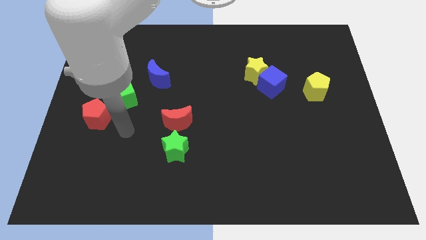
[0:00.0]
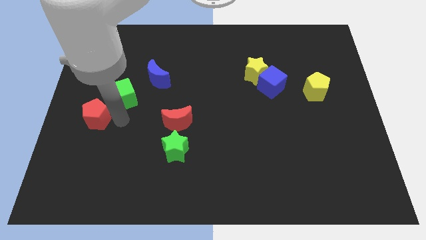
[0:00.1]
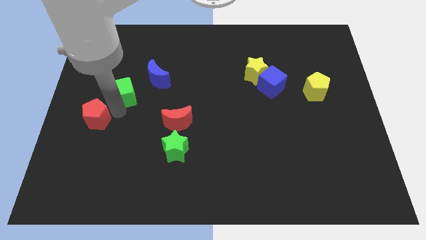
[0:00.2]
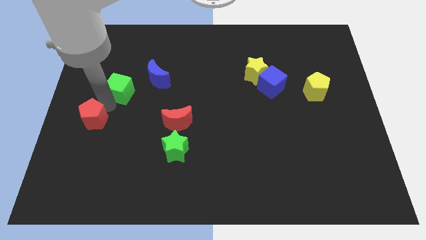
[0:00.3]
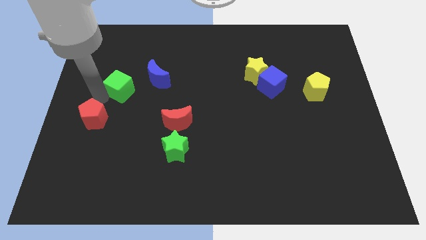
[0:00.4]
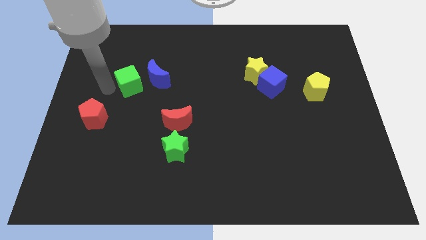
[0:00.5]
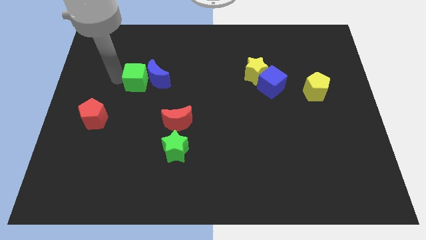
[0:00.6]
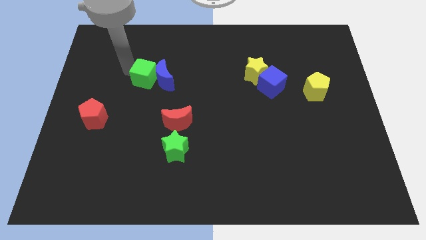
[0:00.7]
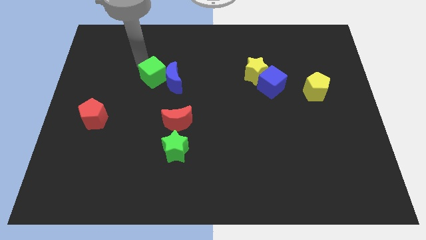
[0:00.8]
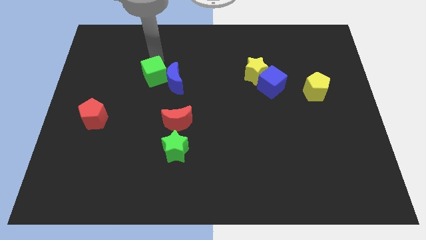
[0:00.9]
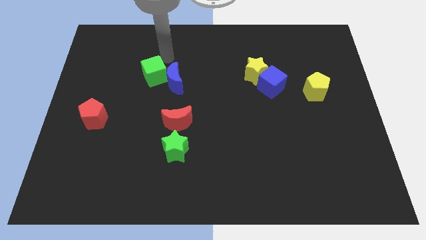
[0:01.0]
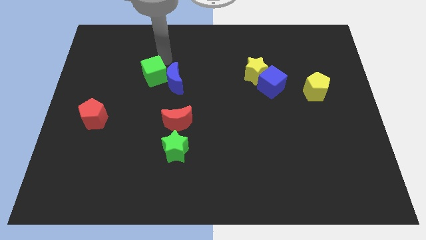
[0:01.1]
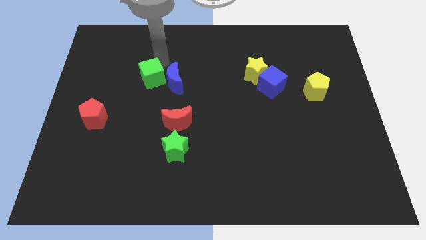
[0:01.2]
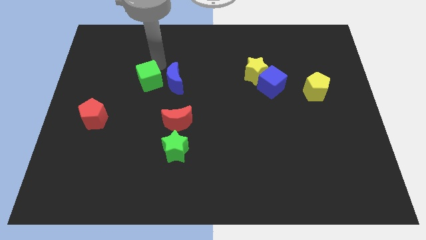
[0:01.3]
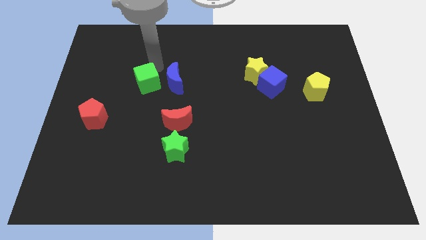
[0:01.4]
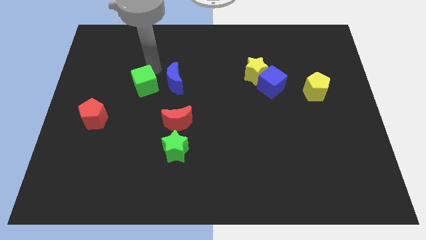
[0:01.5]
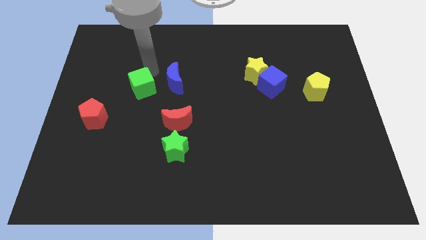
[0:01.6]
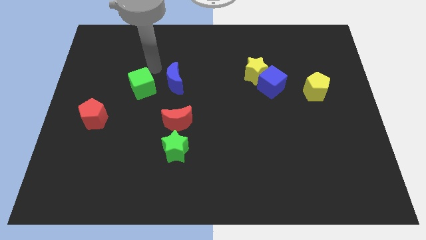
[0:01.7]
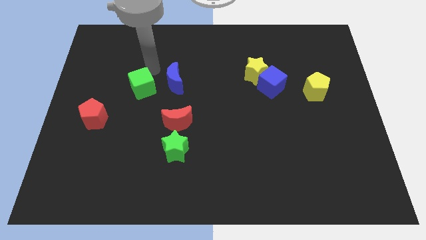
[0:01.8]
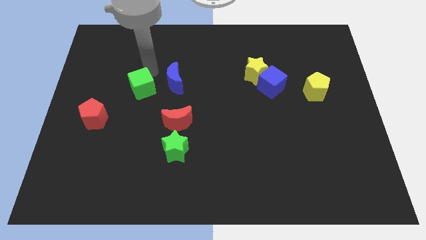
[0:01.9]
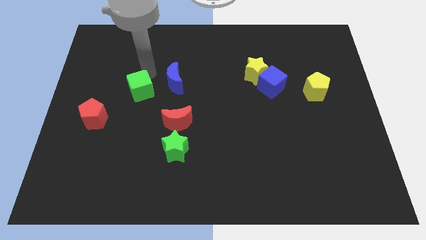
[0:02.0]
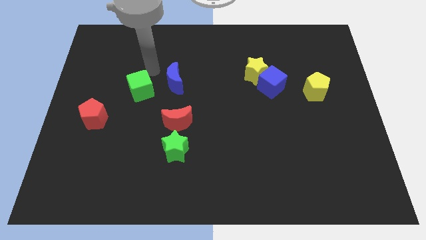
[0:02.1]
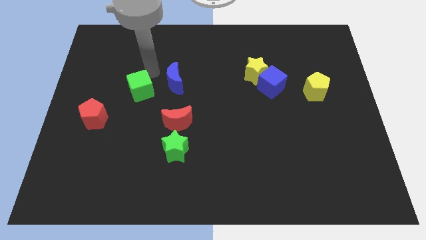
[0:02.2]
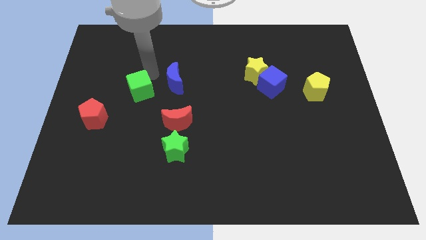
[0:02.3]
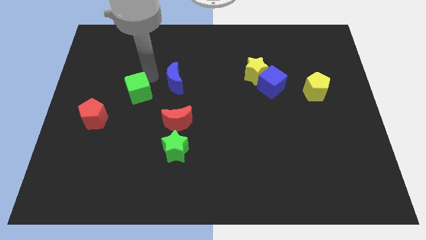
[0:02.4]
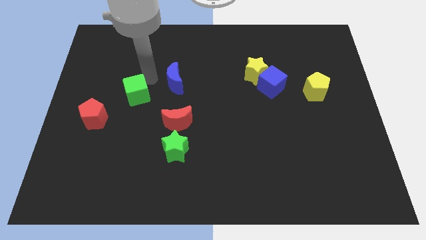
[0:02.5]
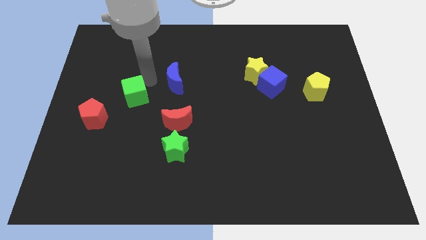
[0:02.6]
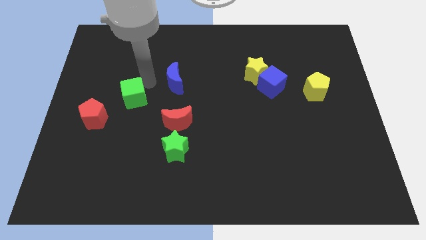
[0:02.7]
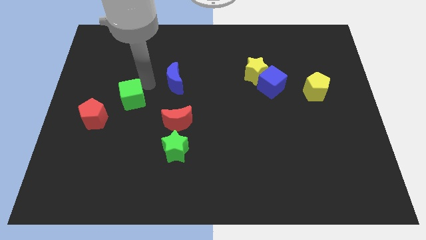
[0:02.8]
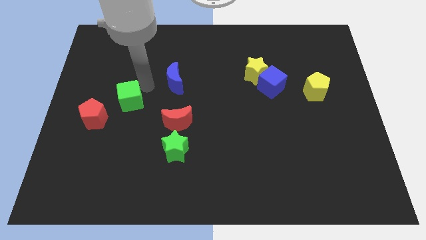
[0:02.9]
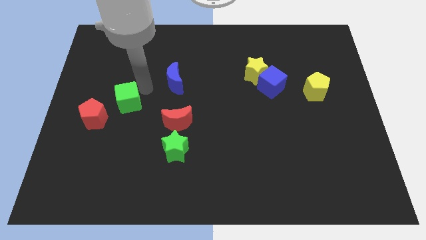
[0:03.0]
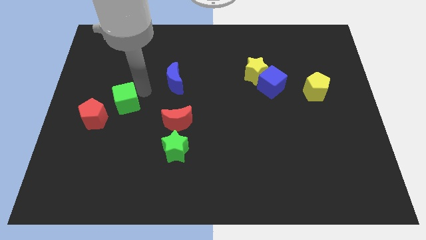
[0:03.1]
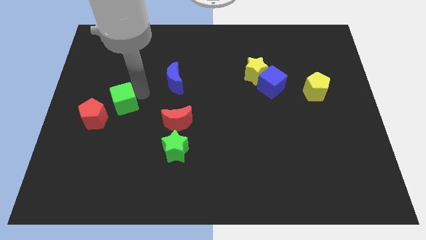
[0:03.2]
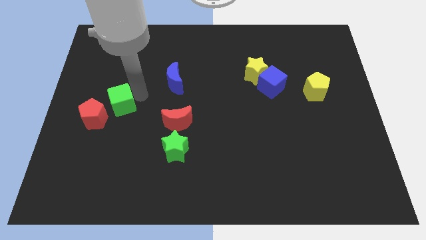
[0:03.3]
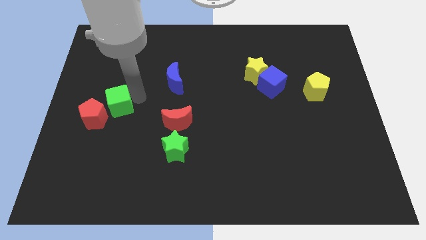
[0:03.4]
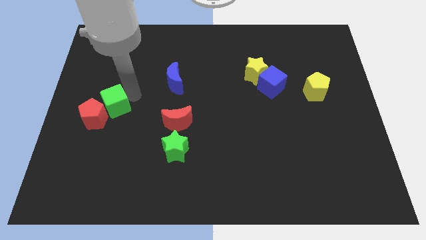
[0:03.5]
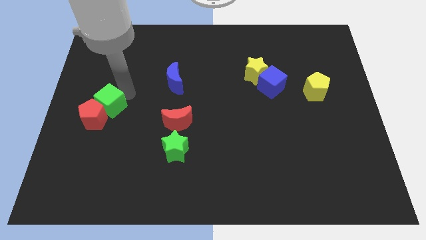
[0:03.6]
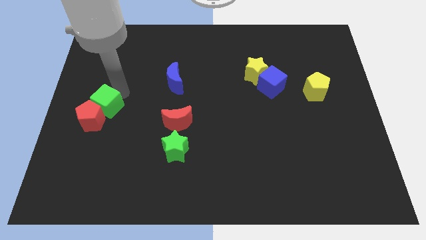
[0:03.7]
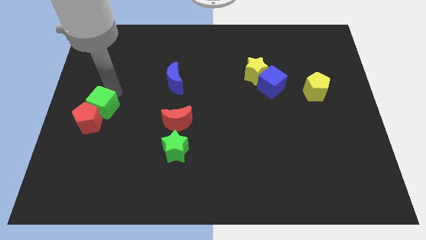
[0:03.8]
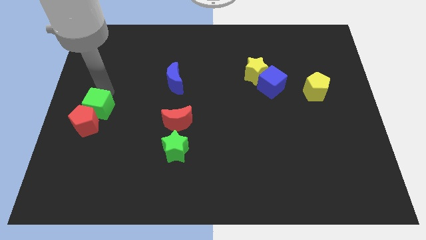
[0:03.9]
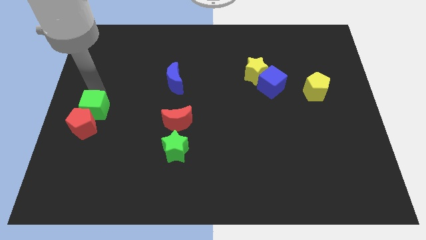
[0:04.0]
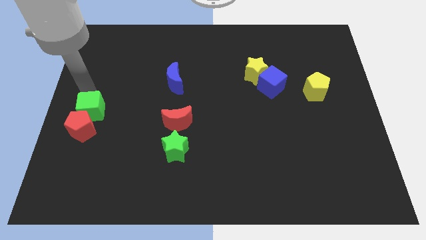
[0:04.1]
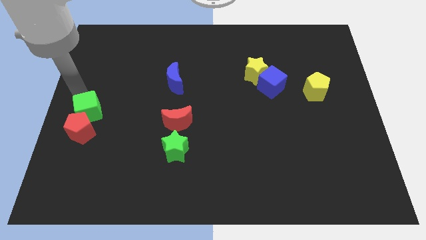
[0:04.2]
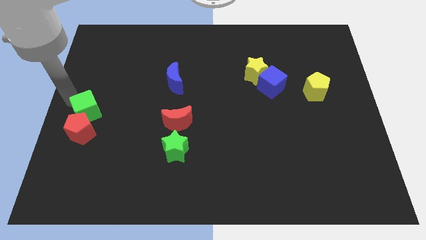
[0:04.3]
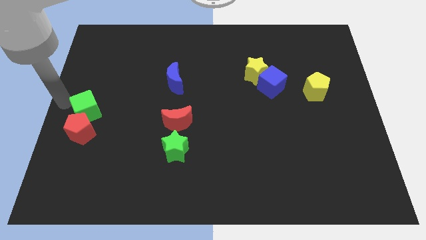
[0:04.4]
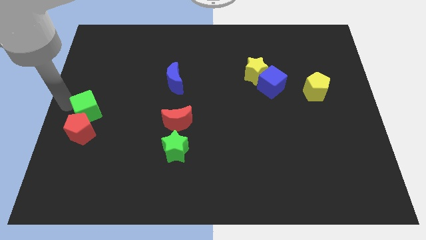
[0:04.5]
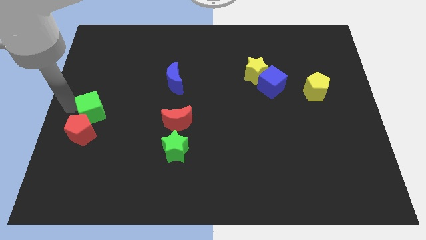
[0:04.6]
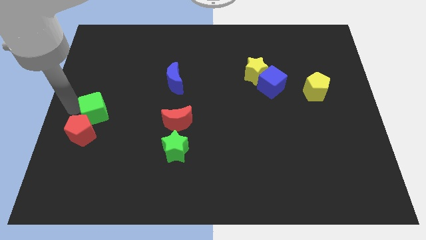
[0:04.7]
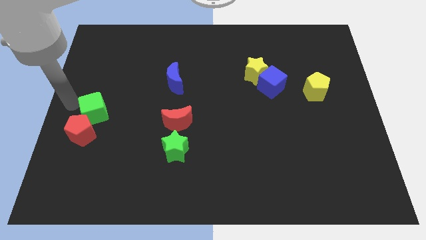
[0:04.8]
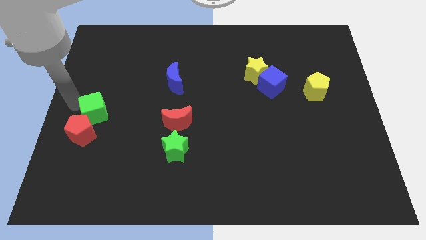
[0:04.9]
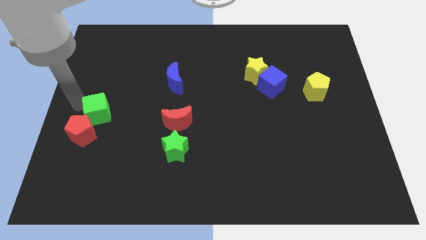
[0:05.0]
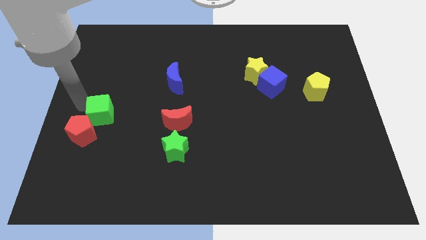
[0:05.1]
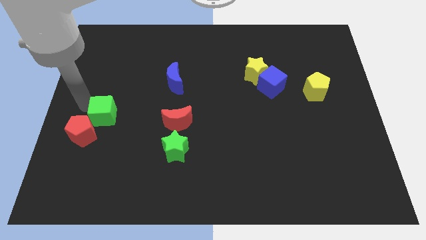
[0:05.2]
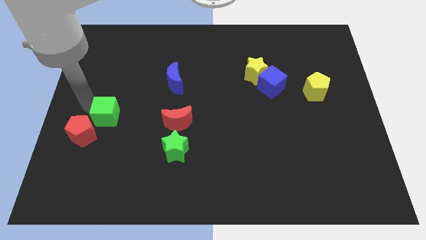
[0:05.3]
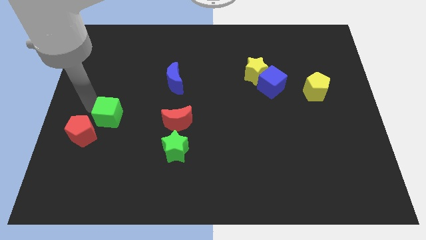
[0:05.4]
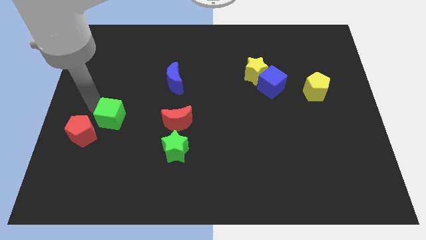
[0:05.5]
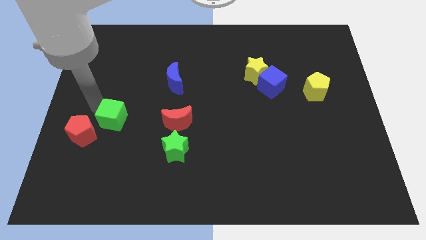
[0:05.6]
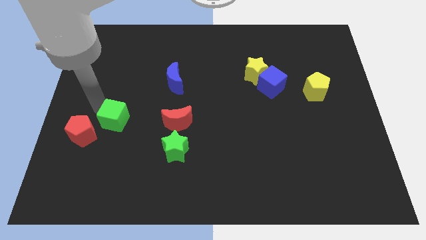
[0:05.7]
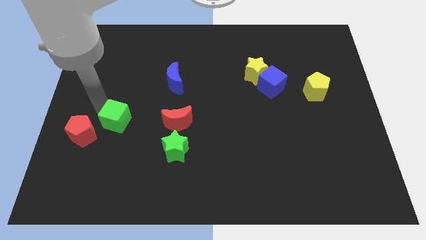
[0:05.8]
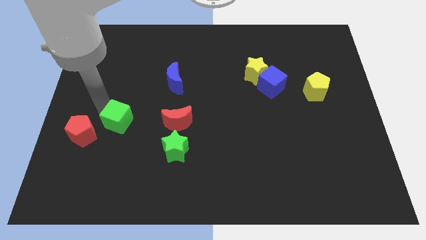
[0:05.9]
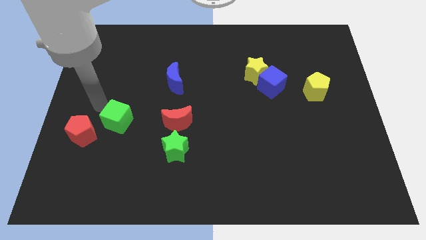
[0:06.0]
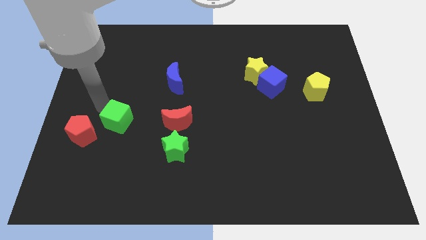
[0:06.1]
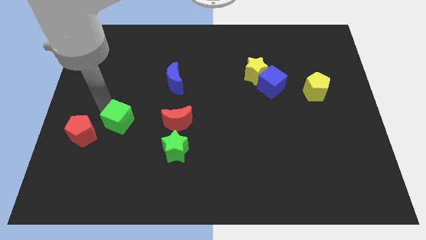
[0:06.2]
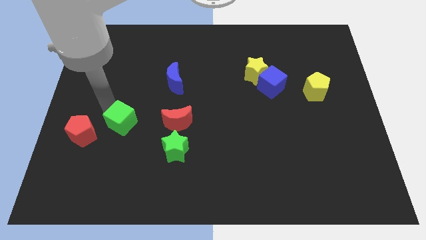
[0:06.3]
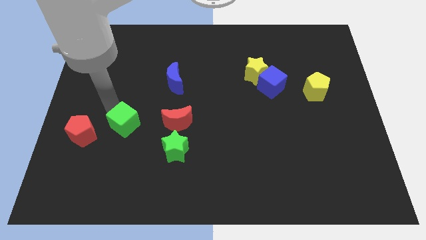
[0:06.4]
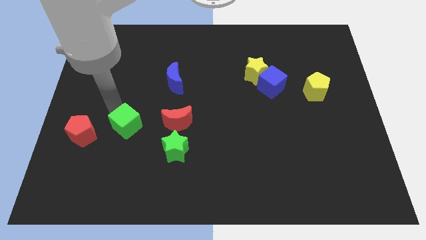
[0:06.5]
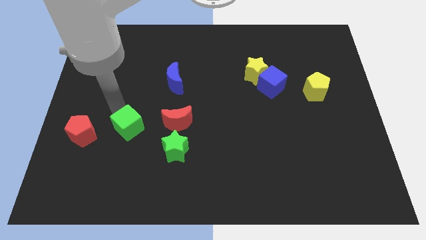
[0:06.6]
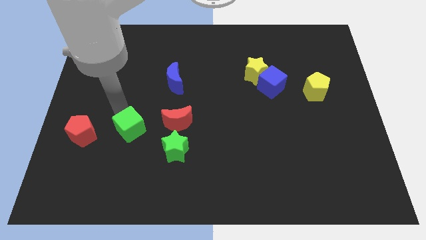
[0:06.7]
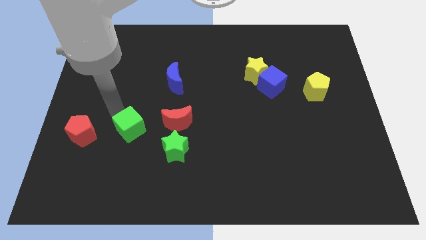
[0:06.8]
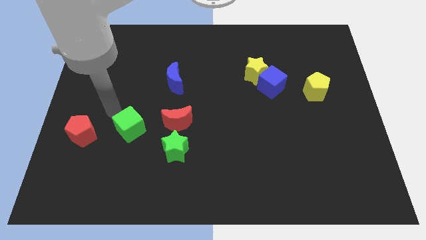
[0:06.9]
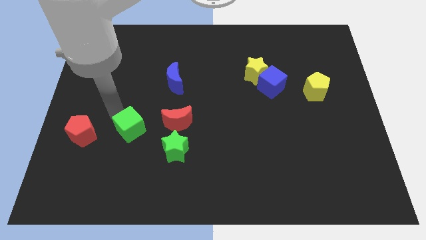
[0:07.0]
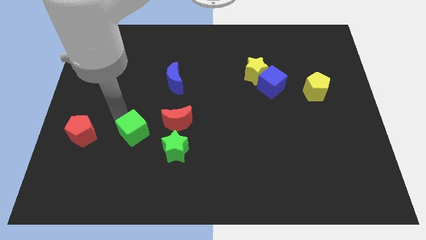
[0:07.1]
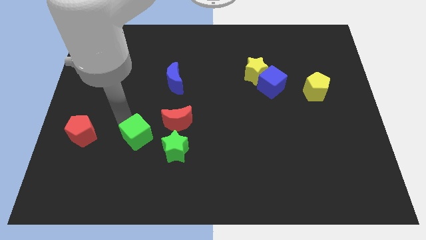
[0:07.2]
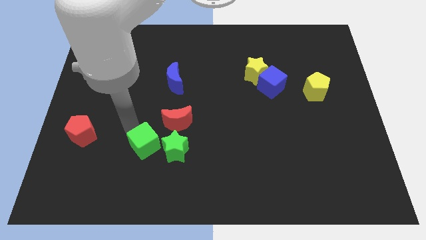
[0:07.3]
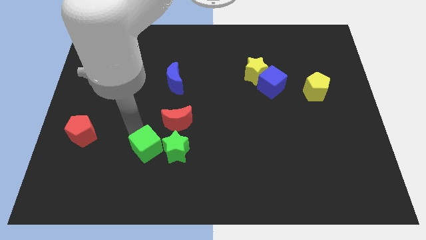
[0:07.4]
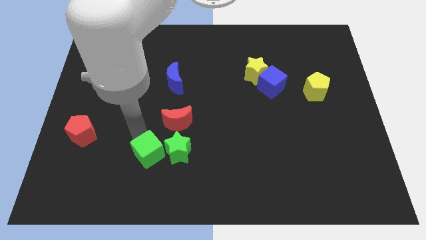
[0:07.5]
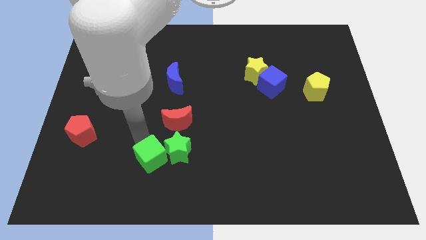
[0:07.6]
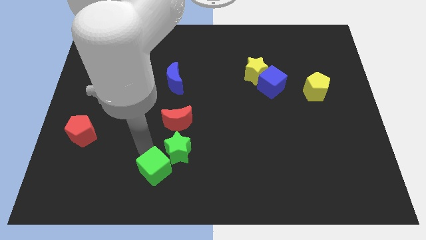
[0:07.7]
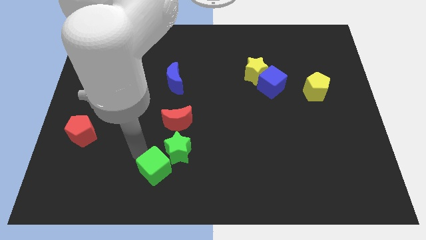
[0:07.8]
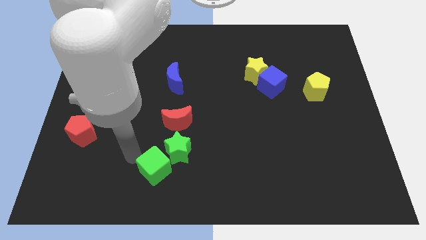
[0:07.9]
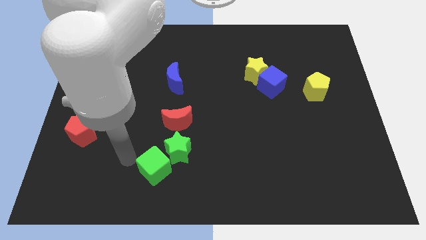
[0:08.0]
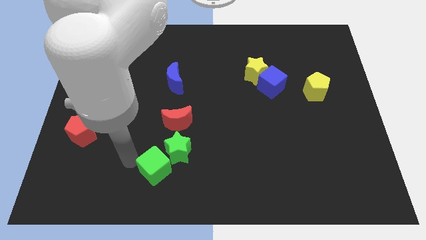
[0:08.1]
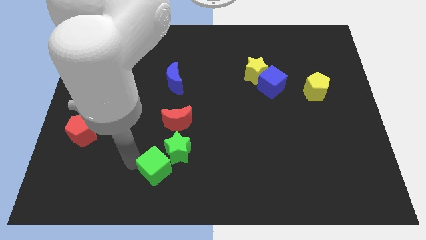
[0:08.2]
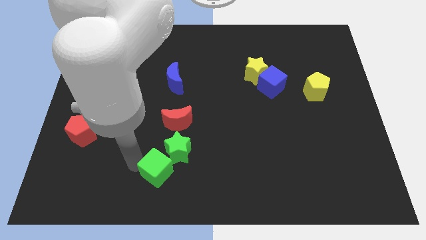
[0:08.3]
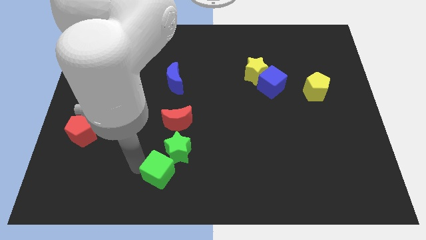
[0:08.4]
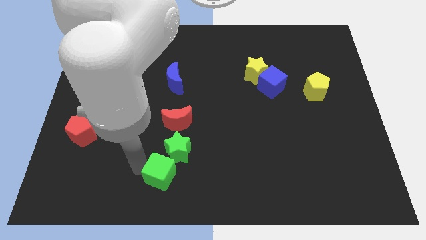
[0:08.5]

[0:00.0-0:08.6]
move the green cube to the bottom
